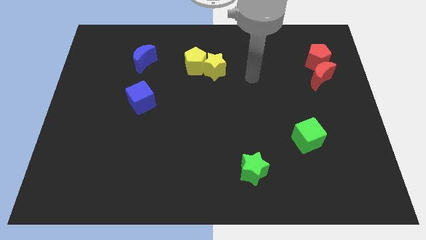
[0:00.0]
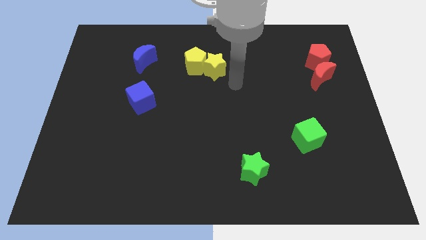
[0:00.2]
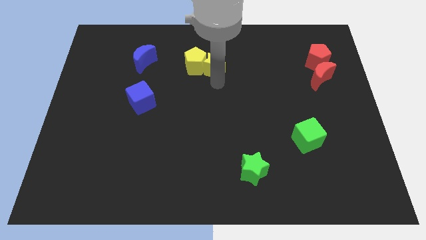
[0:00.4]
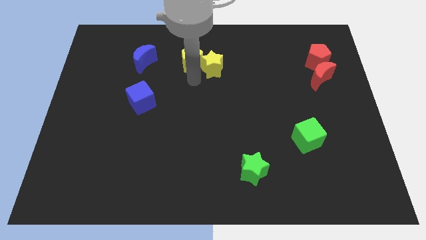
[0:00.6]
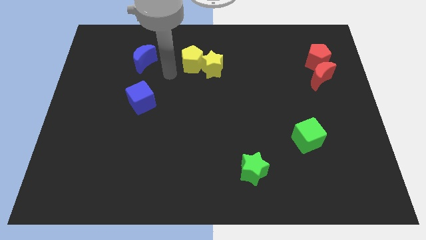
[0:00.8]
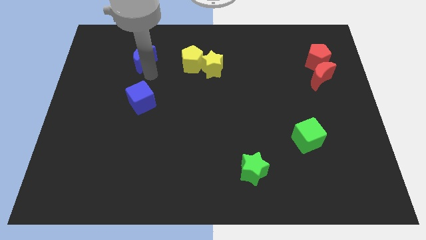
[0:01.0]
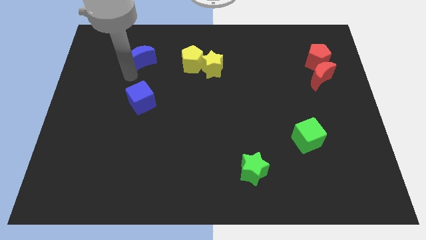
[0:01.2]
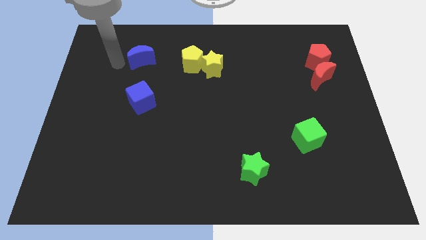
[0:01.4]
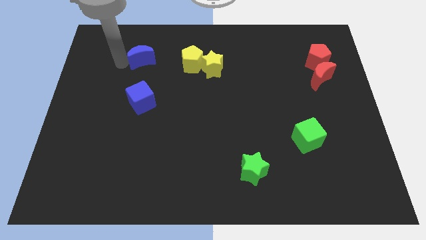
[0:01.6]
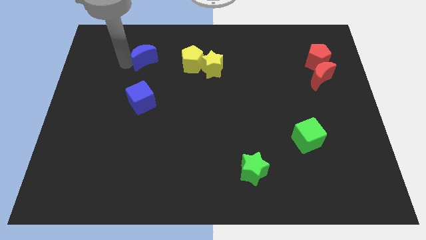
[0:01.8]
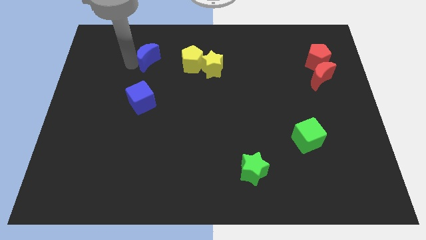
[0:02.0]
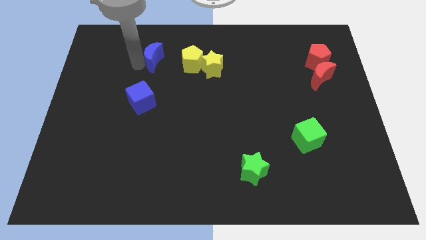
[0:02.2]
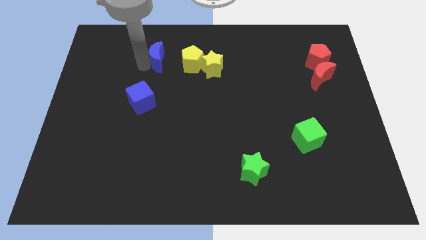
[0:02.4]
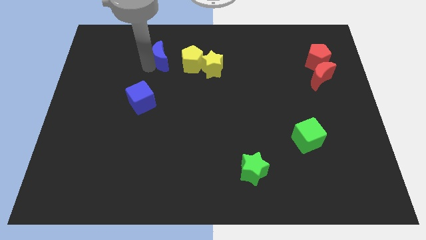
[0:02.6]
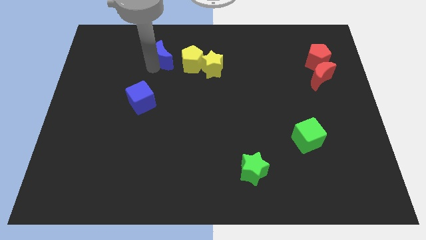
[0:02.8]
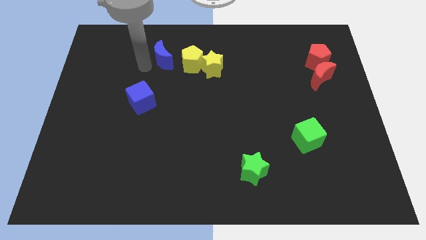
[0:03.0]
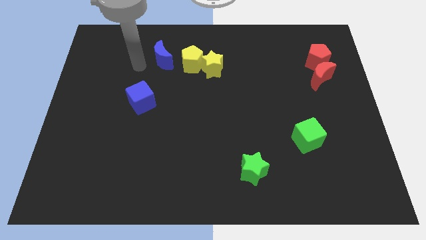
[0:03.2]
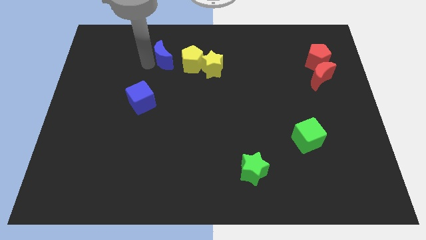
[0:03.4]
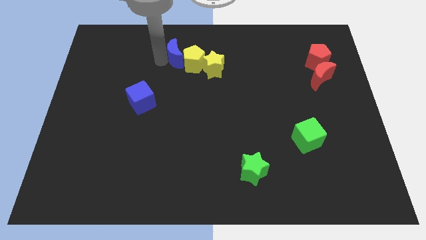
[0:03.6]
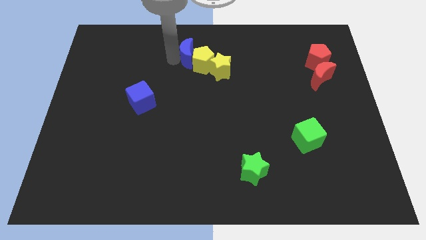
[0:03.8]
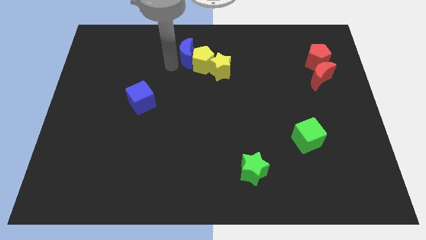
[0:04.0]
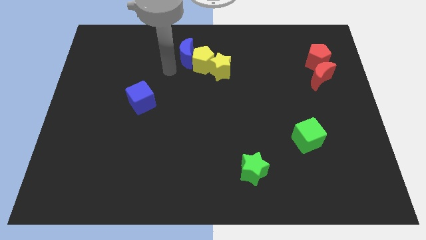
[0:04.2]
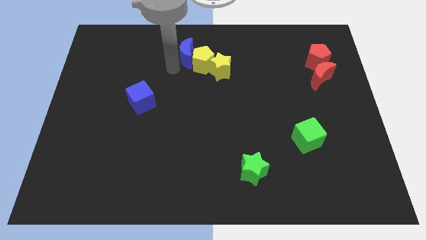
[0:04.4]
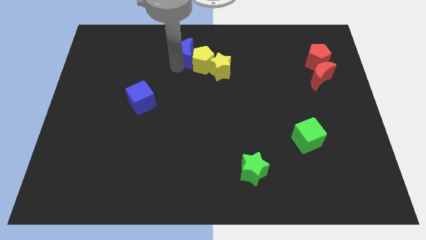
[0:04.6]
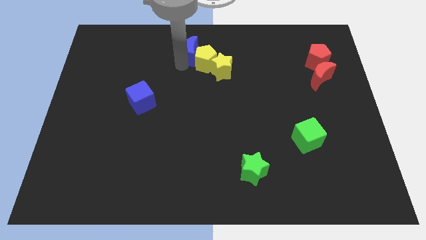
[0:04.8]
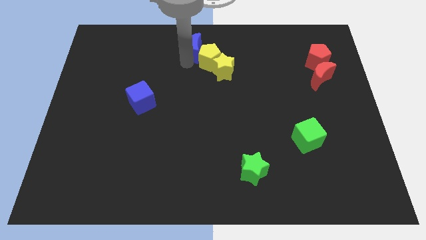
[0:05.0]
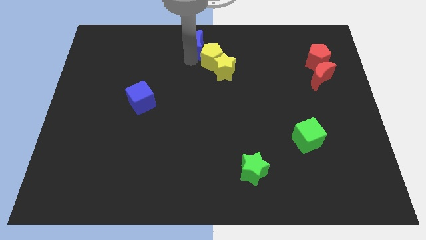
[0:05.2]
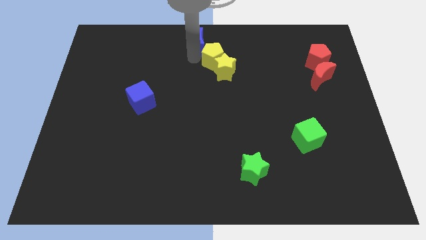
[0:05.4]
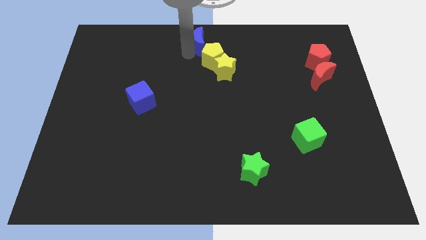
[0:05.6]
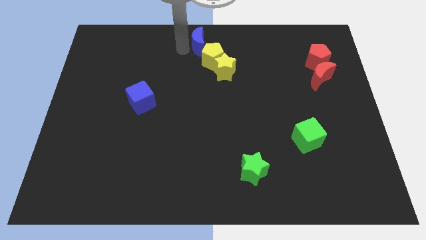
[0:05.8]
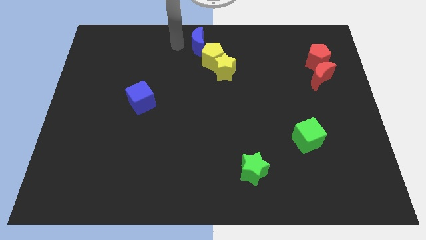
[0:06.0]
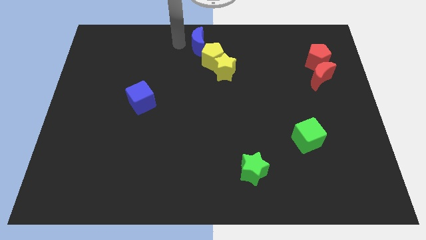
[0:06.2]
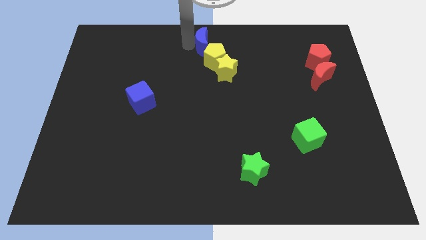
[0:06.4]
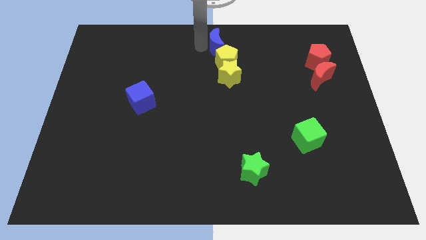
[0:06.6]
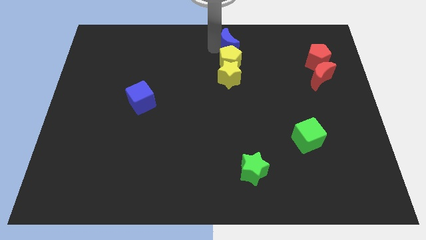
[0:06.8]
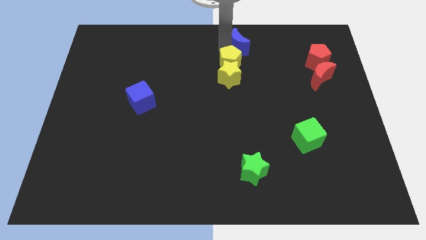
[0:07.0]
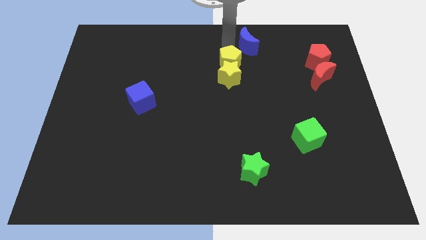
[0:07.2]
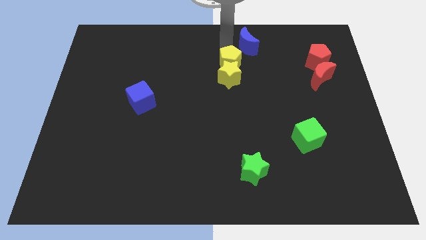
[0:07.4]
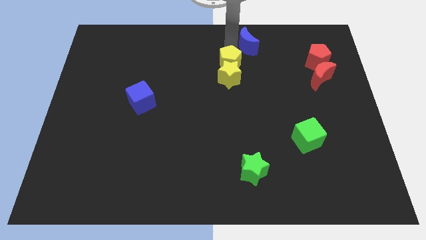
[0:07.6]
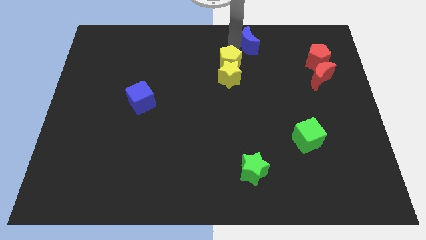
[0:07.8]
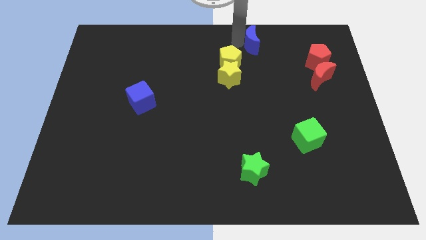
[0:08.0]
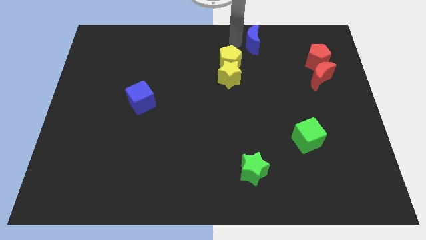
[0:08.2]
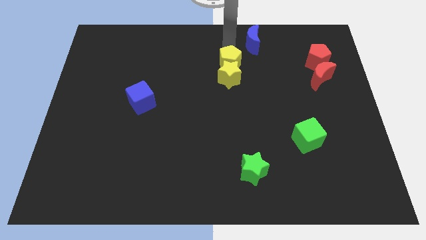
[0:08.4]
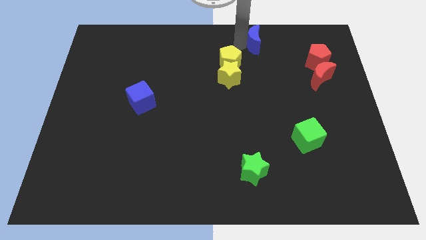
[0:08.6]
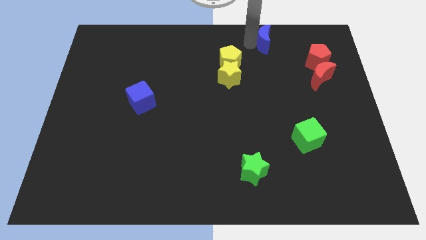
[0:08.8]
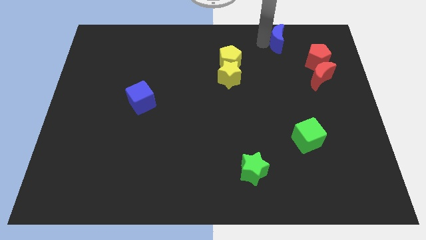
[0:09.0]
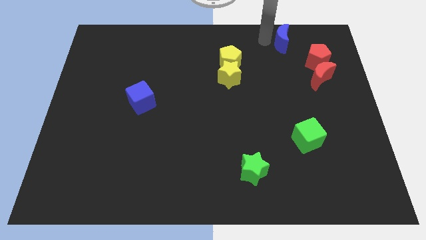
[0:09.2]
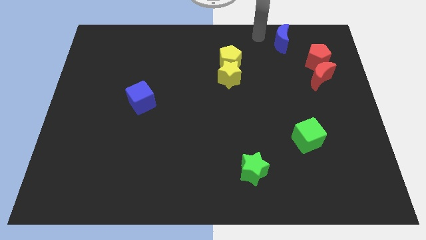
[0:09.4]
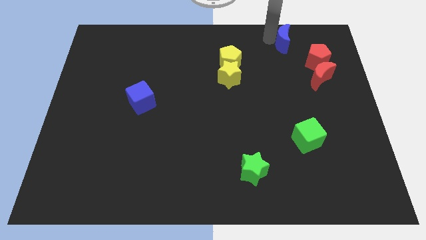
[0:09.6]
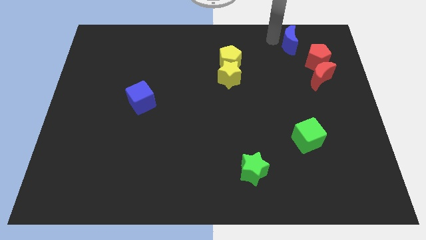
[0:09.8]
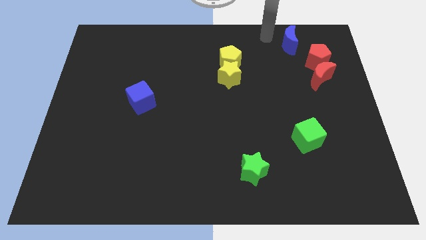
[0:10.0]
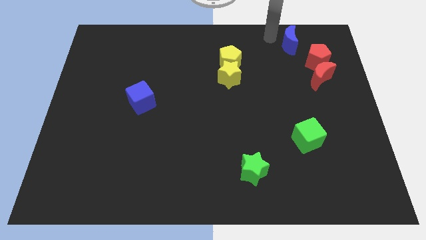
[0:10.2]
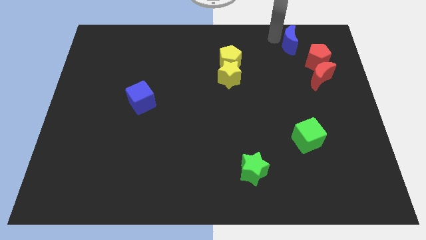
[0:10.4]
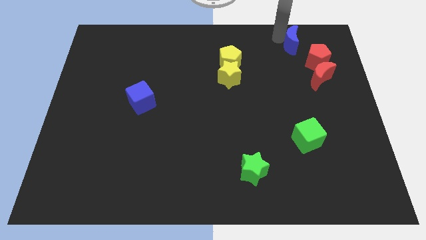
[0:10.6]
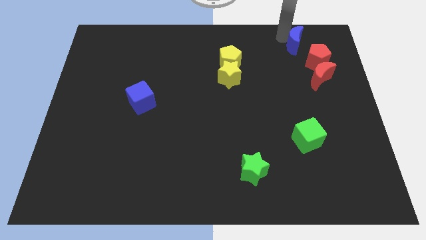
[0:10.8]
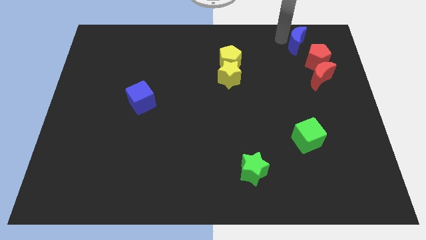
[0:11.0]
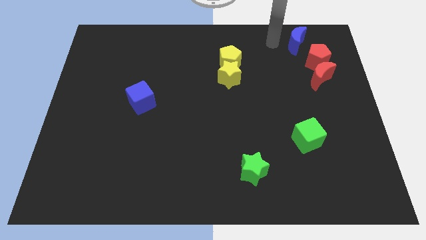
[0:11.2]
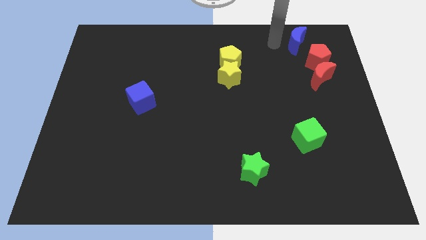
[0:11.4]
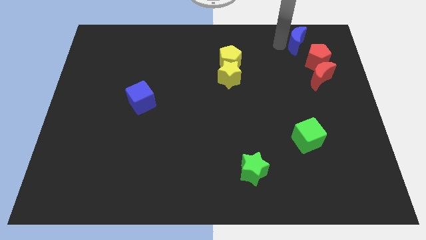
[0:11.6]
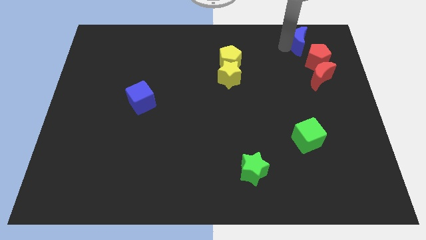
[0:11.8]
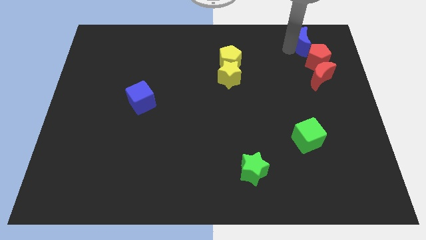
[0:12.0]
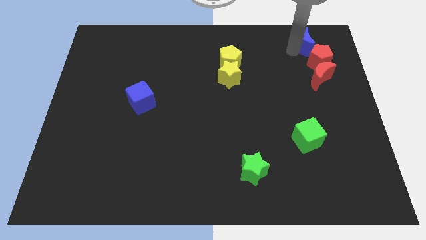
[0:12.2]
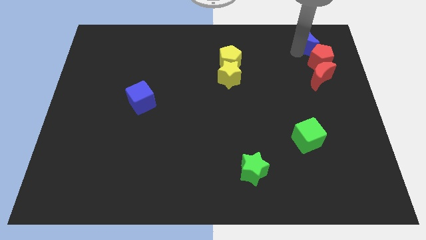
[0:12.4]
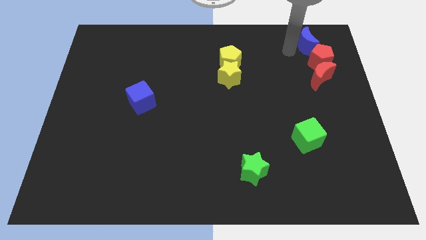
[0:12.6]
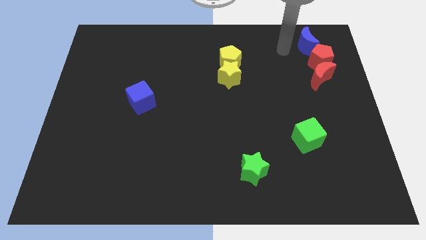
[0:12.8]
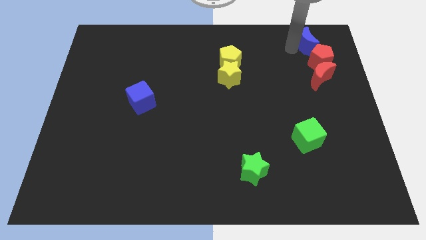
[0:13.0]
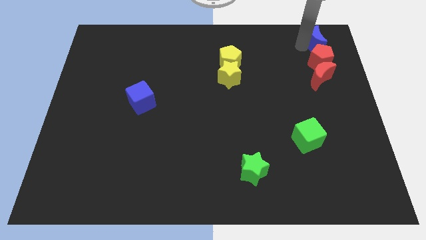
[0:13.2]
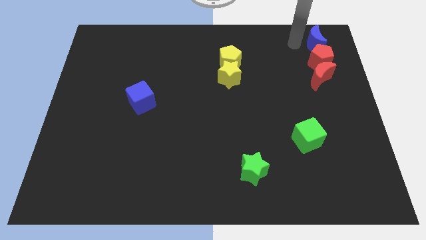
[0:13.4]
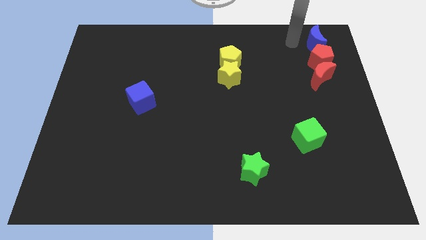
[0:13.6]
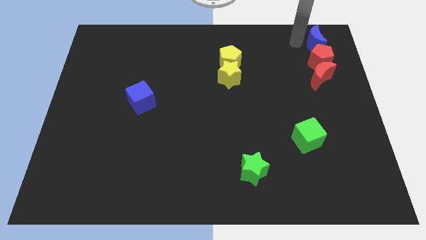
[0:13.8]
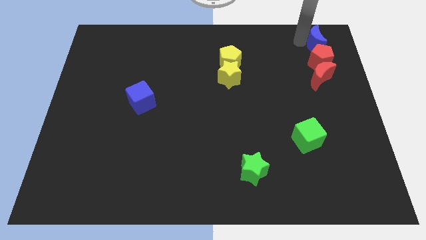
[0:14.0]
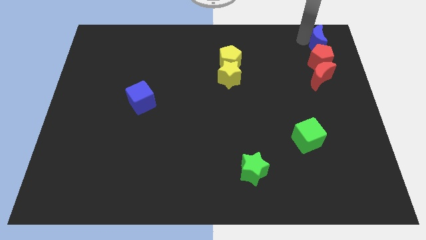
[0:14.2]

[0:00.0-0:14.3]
slide the blue moon to the top right corner
